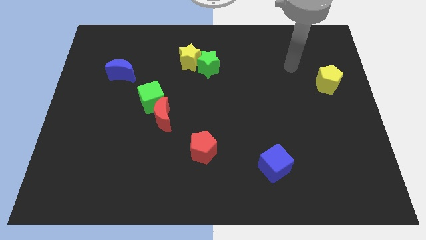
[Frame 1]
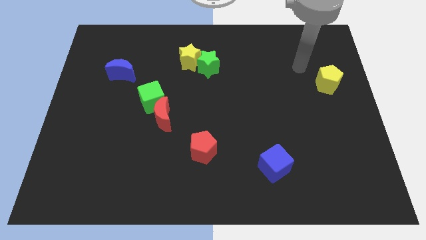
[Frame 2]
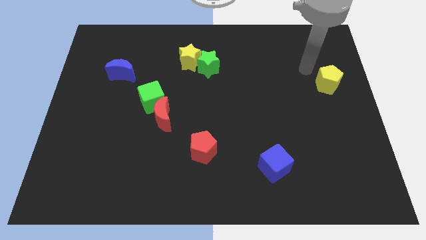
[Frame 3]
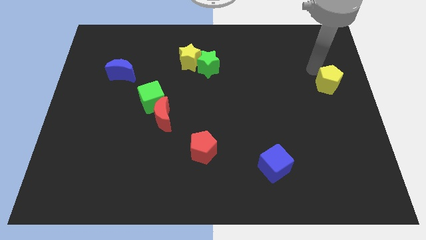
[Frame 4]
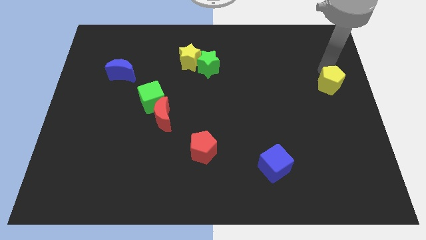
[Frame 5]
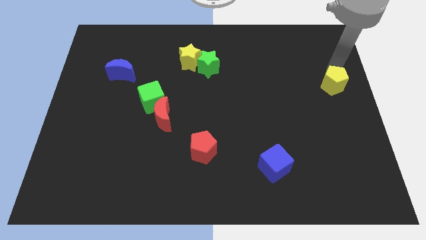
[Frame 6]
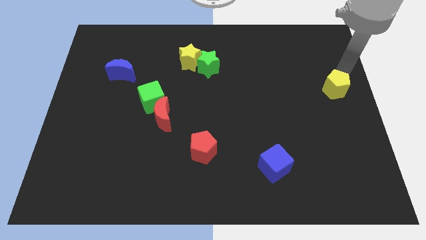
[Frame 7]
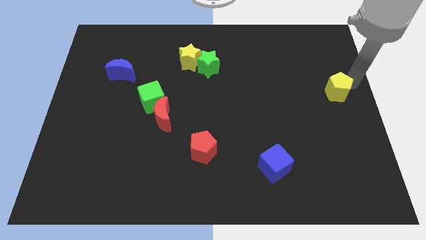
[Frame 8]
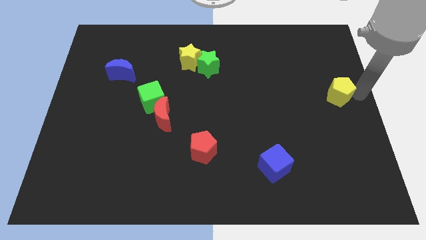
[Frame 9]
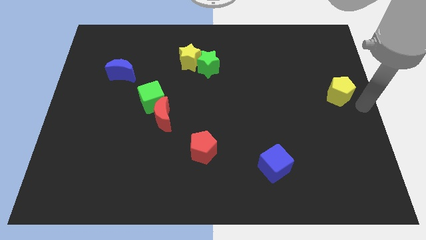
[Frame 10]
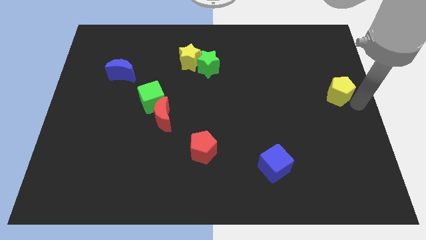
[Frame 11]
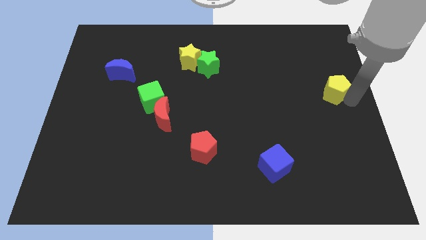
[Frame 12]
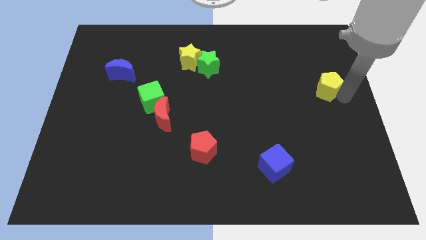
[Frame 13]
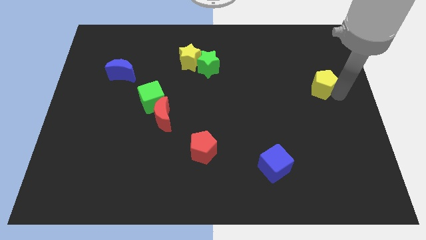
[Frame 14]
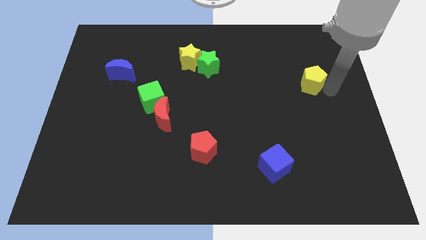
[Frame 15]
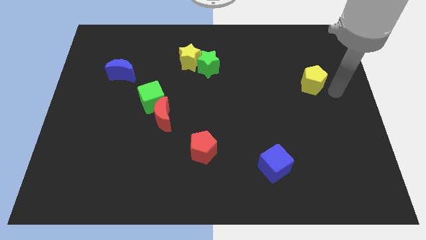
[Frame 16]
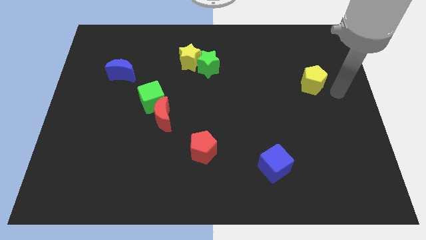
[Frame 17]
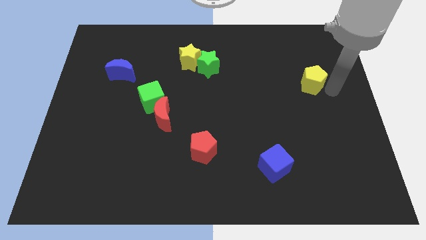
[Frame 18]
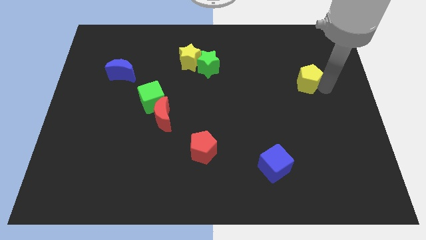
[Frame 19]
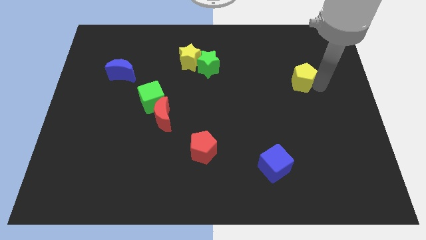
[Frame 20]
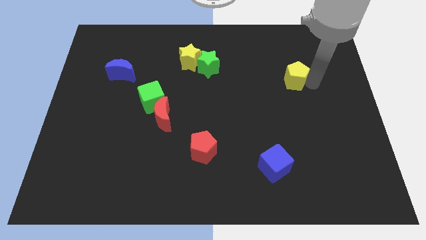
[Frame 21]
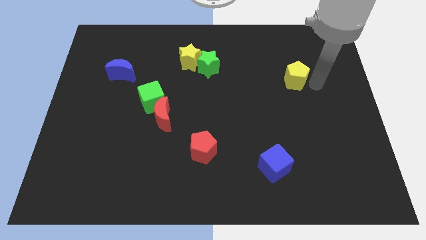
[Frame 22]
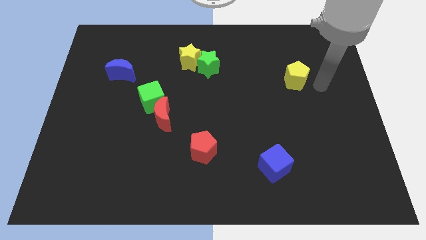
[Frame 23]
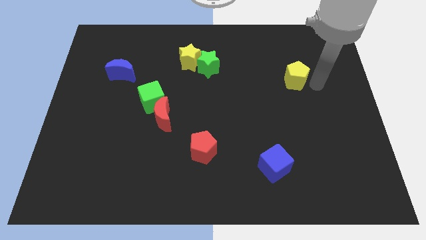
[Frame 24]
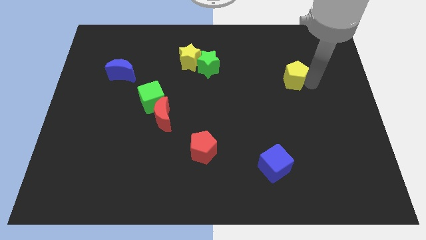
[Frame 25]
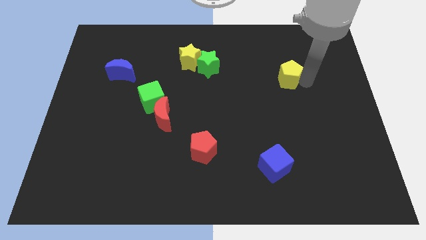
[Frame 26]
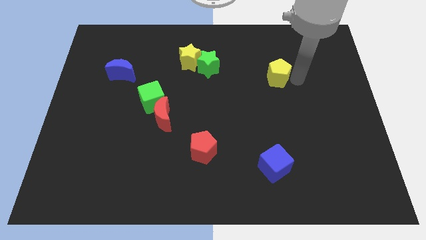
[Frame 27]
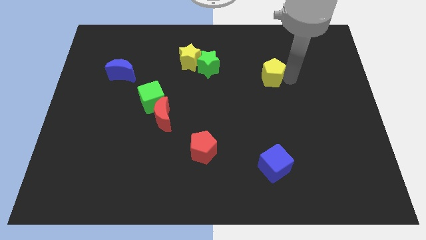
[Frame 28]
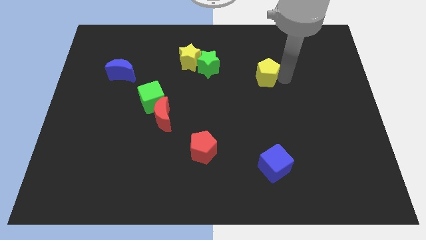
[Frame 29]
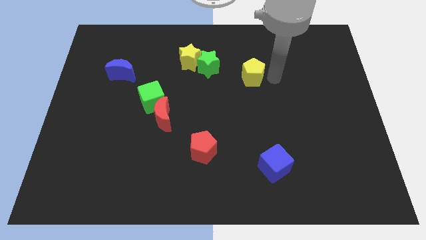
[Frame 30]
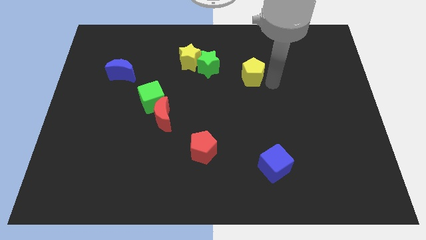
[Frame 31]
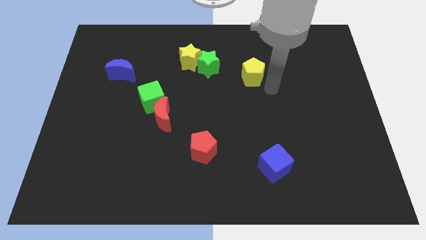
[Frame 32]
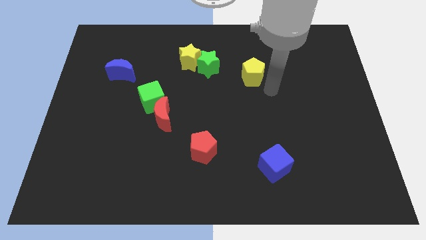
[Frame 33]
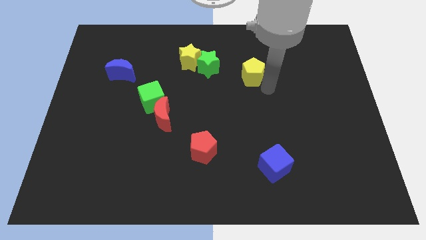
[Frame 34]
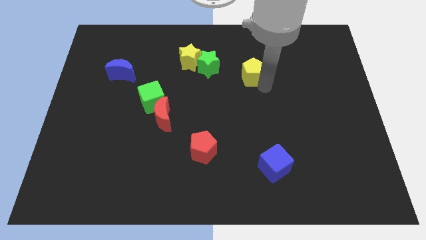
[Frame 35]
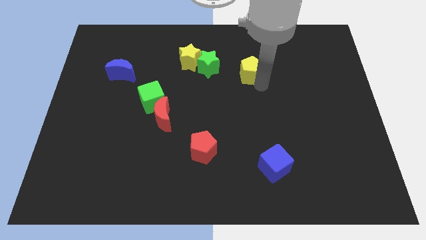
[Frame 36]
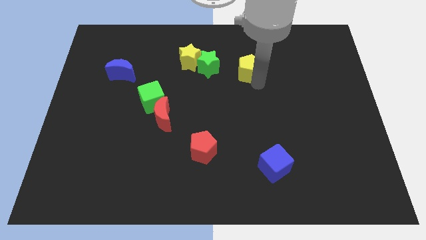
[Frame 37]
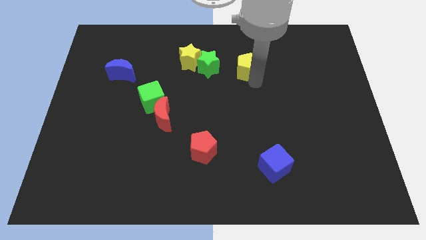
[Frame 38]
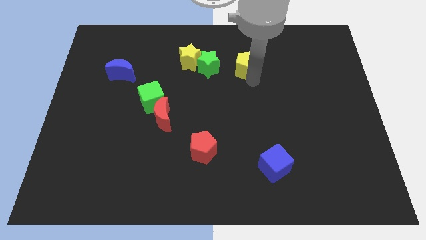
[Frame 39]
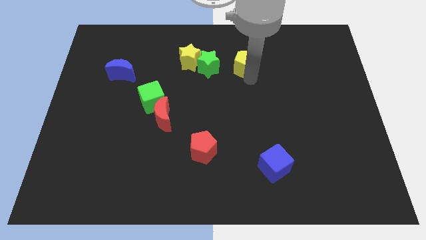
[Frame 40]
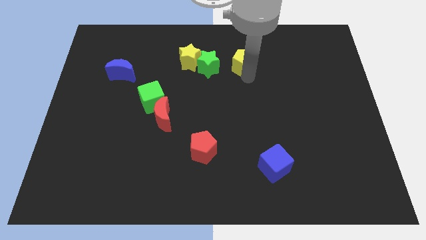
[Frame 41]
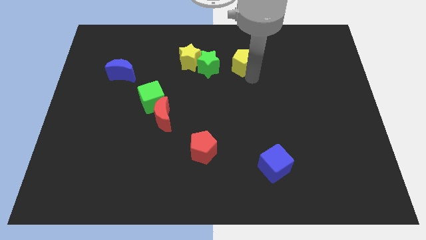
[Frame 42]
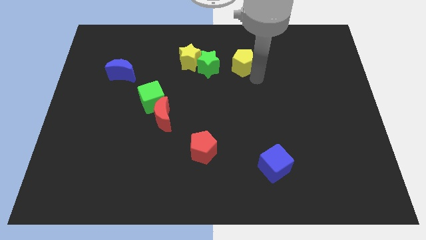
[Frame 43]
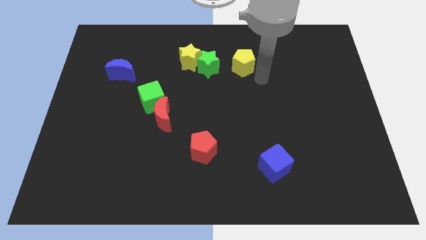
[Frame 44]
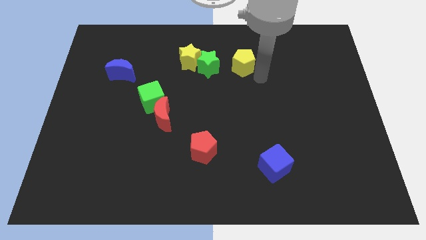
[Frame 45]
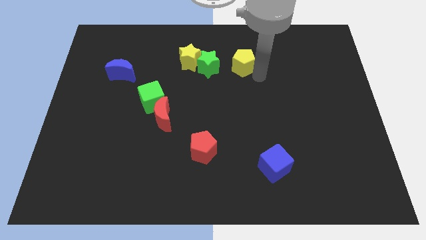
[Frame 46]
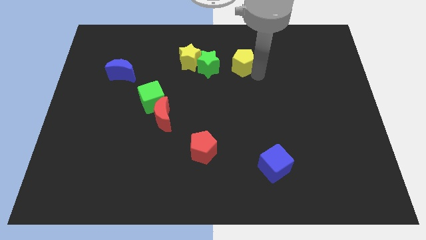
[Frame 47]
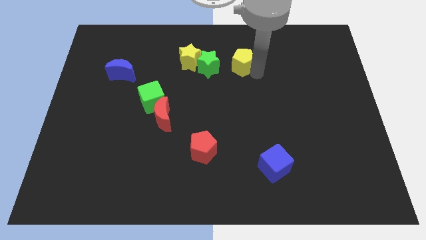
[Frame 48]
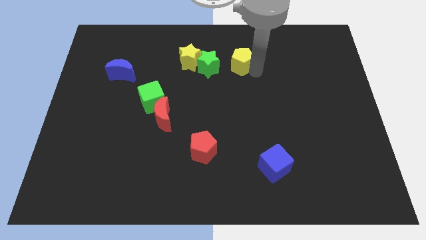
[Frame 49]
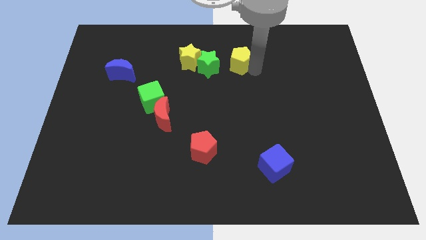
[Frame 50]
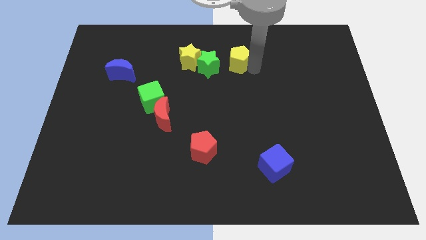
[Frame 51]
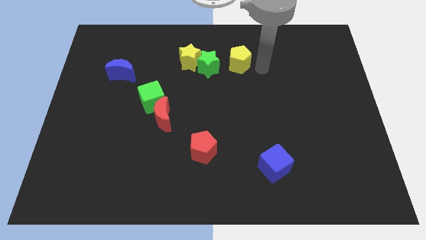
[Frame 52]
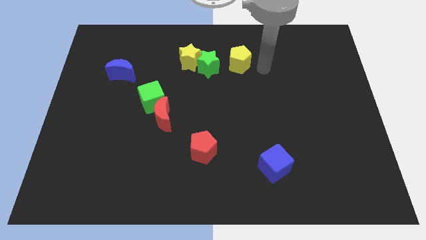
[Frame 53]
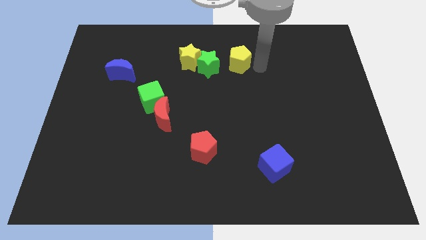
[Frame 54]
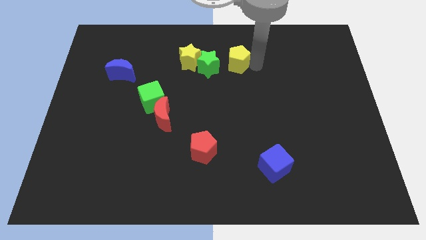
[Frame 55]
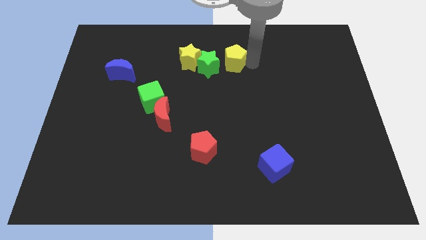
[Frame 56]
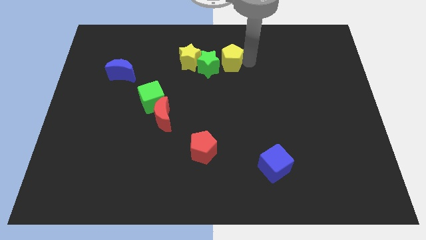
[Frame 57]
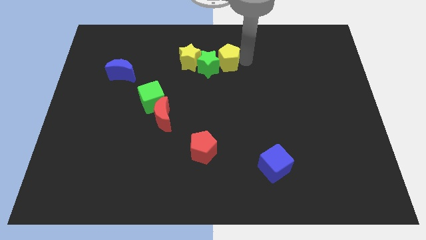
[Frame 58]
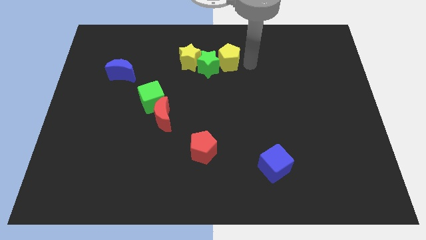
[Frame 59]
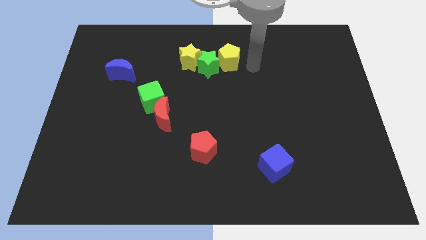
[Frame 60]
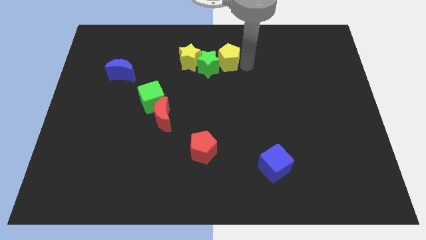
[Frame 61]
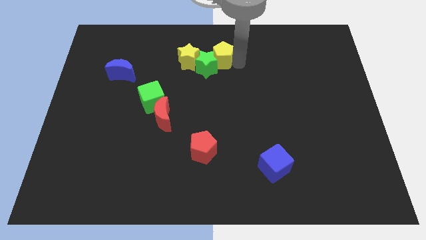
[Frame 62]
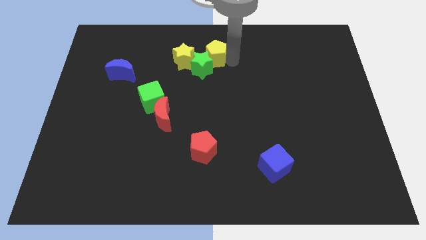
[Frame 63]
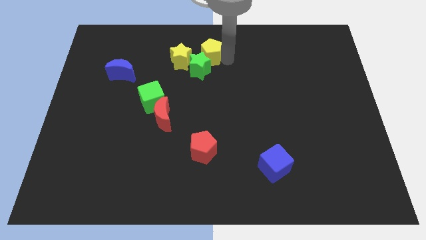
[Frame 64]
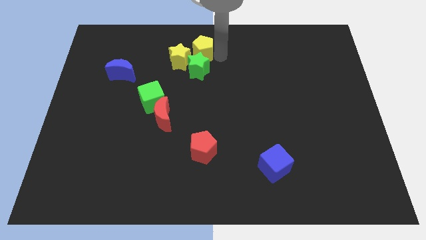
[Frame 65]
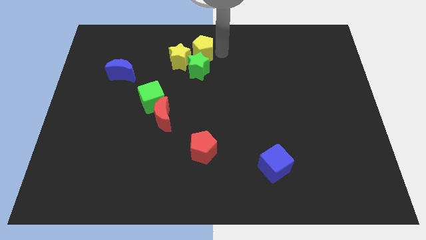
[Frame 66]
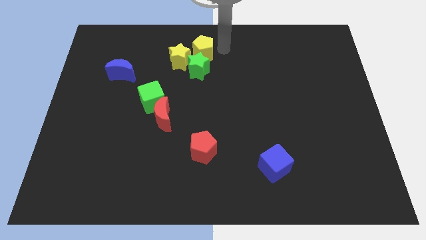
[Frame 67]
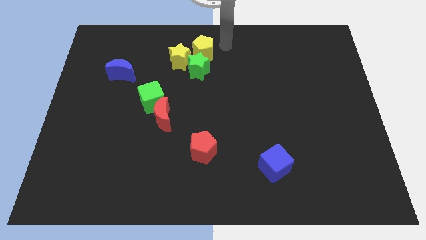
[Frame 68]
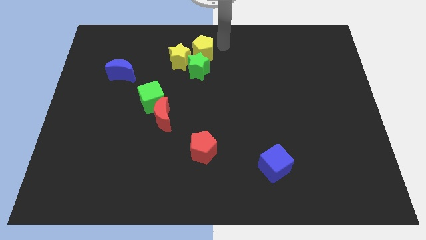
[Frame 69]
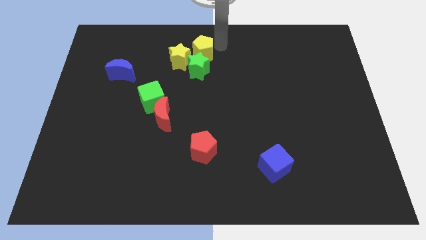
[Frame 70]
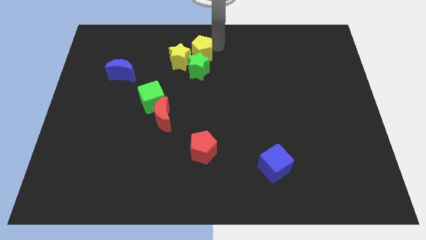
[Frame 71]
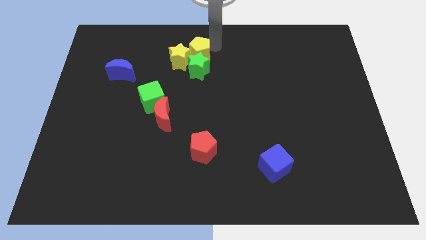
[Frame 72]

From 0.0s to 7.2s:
push the yellow pentagon towards the yellow star
